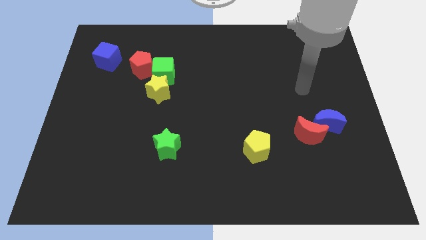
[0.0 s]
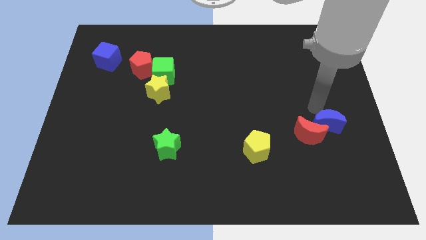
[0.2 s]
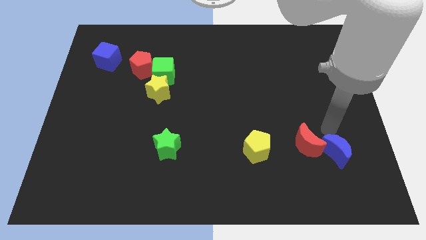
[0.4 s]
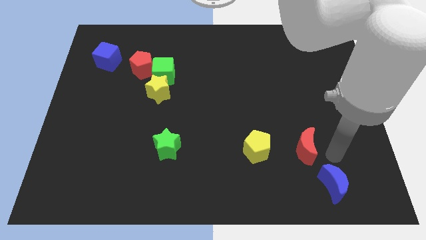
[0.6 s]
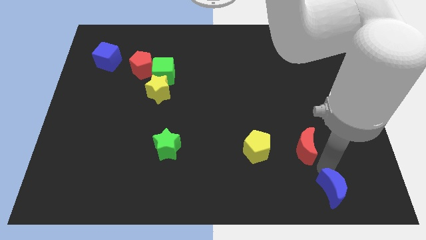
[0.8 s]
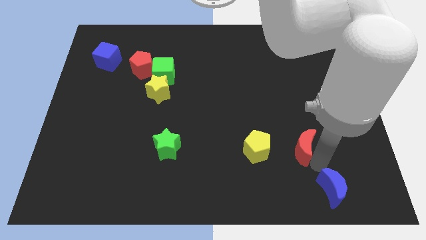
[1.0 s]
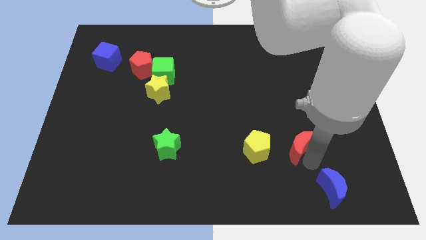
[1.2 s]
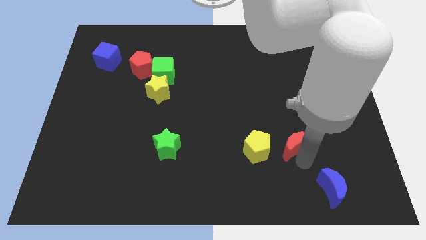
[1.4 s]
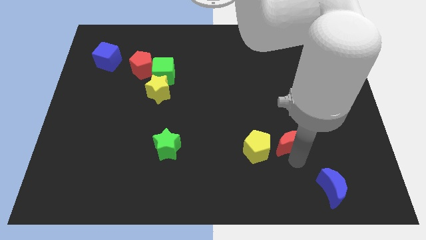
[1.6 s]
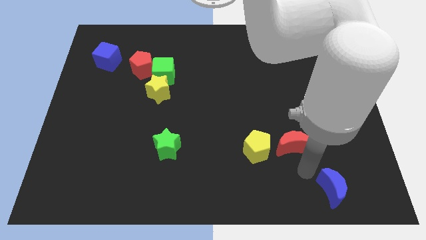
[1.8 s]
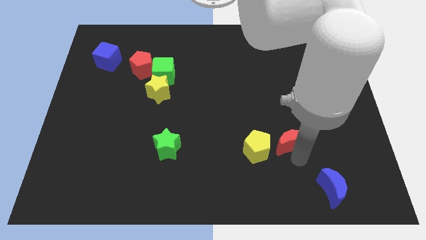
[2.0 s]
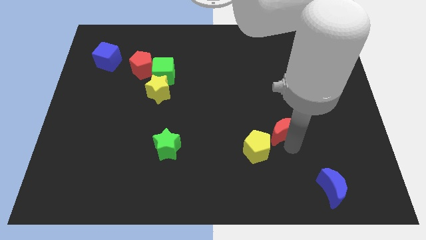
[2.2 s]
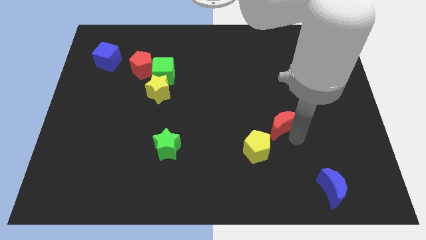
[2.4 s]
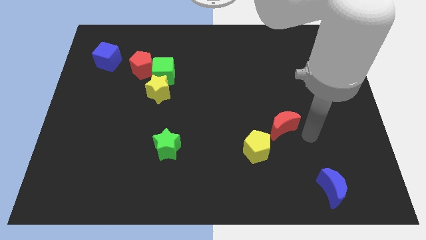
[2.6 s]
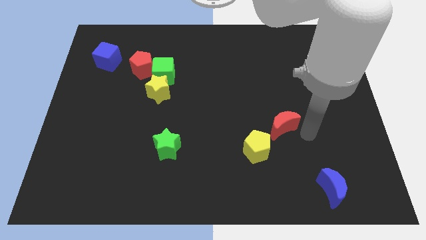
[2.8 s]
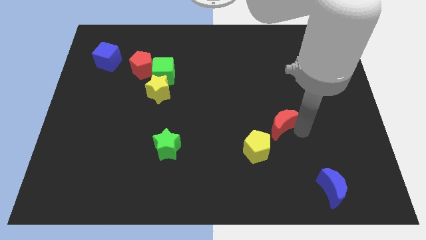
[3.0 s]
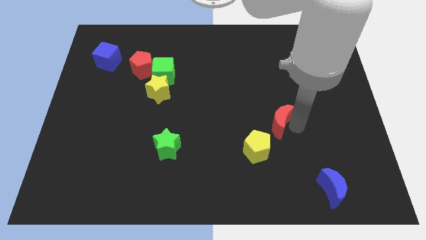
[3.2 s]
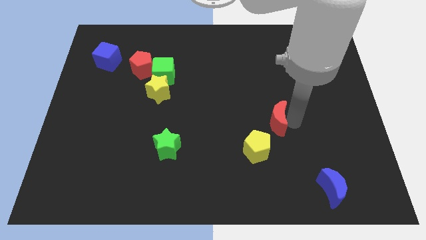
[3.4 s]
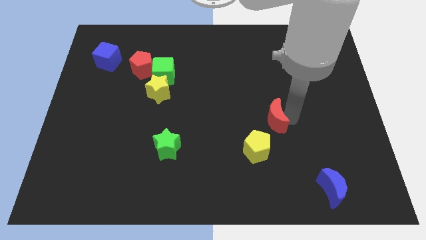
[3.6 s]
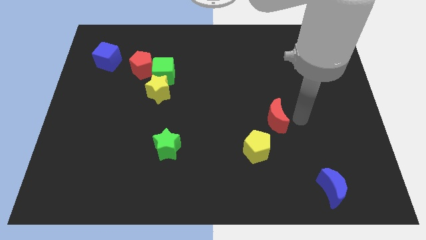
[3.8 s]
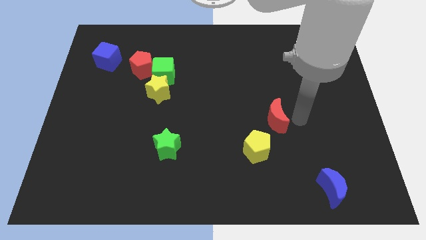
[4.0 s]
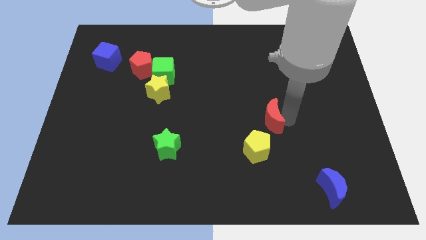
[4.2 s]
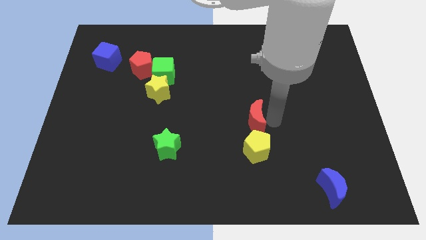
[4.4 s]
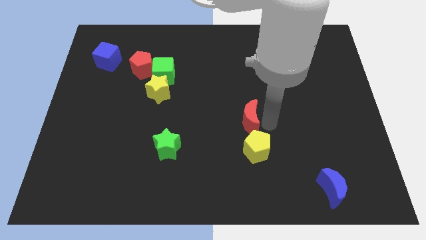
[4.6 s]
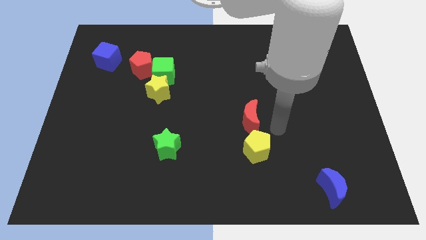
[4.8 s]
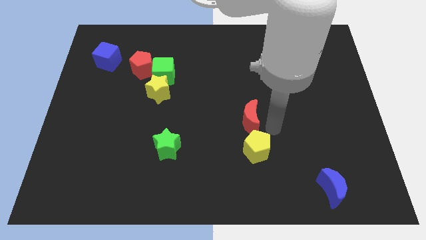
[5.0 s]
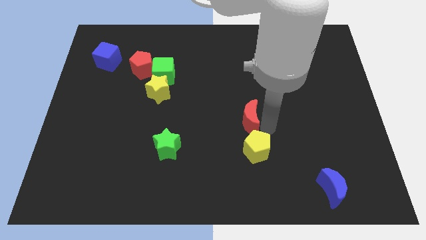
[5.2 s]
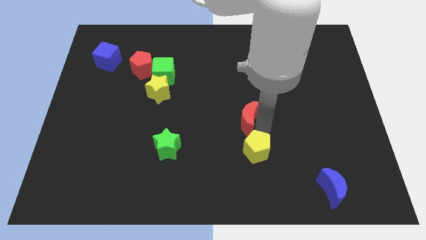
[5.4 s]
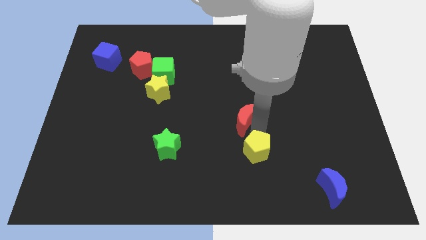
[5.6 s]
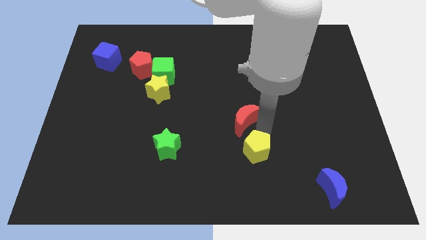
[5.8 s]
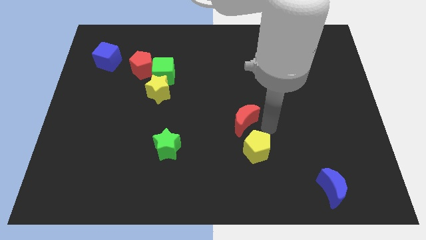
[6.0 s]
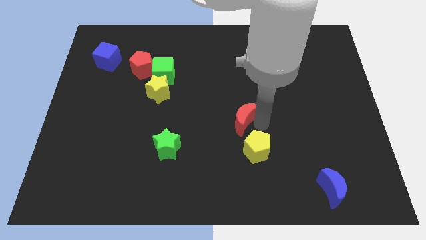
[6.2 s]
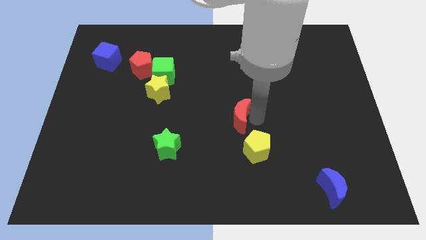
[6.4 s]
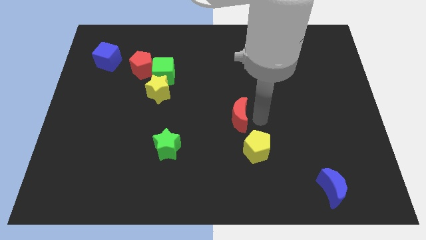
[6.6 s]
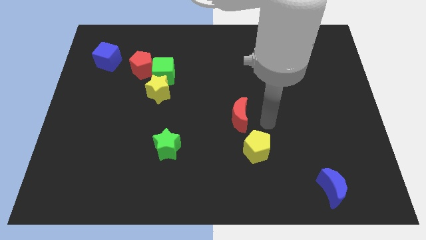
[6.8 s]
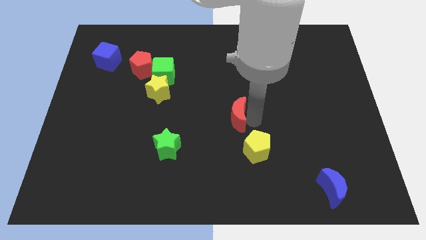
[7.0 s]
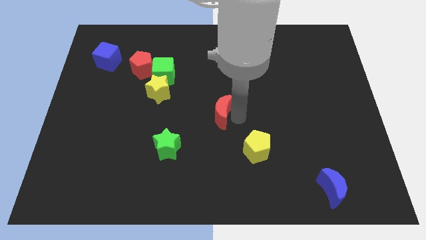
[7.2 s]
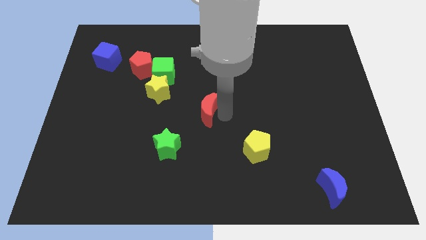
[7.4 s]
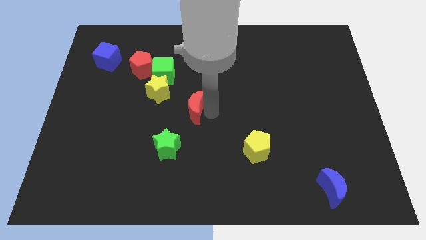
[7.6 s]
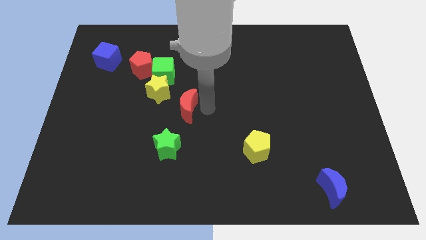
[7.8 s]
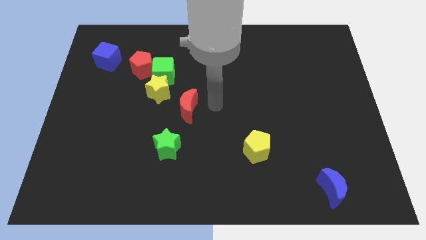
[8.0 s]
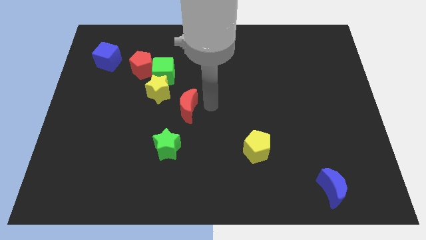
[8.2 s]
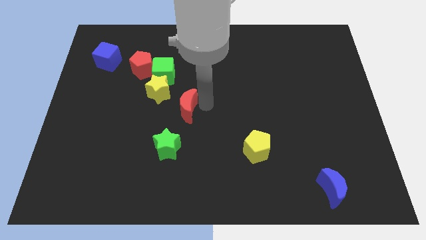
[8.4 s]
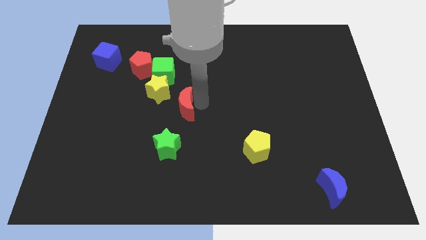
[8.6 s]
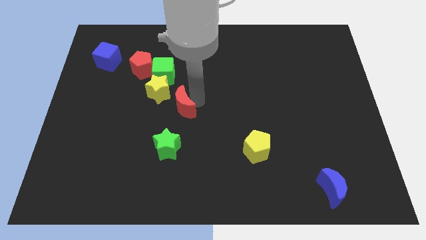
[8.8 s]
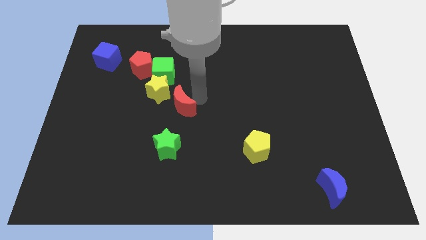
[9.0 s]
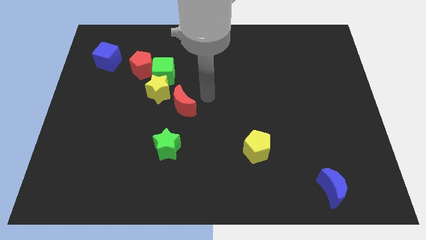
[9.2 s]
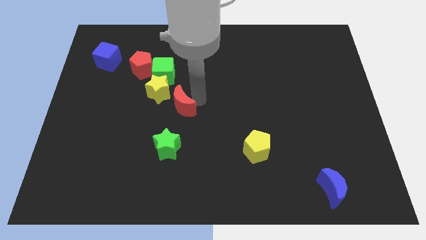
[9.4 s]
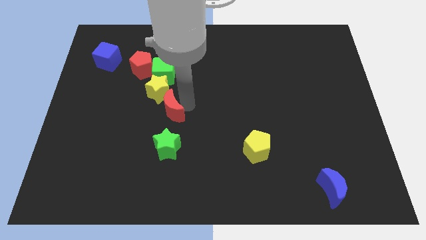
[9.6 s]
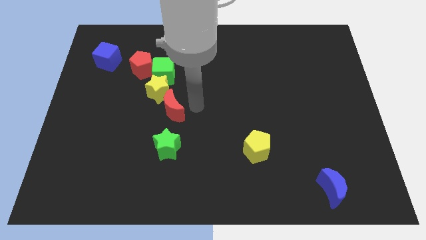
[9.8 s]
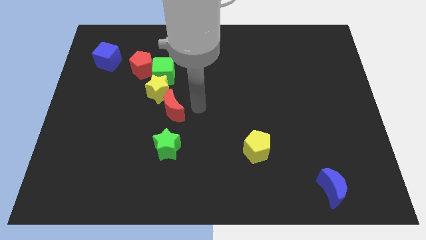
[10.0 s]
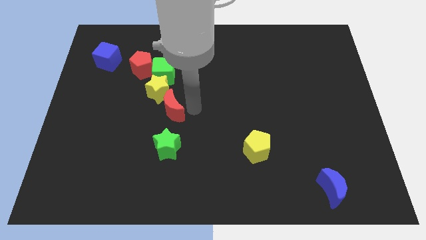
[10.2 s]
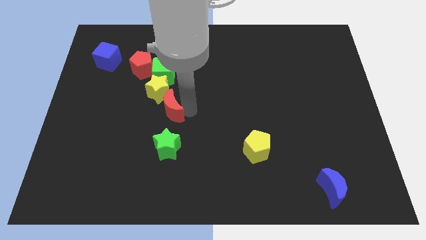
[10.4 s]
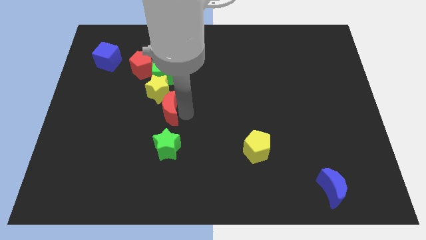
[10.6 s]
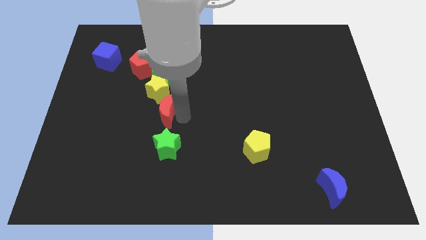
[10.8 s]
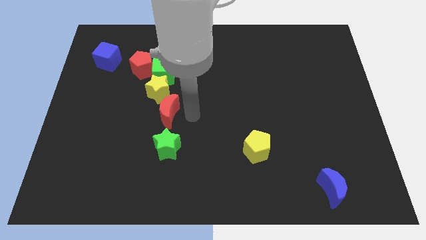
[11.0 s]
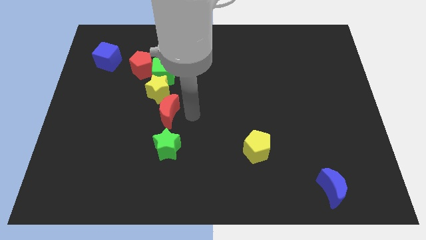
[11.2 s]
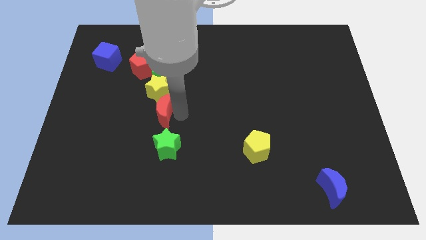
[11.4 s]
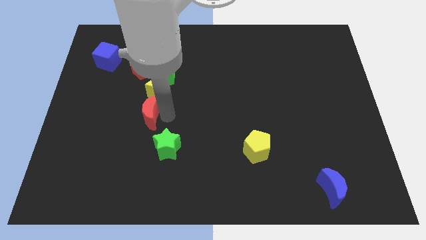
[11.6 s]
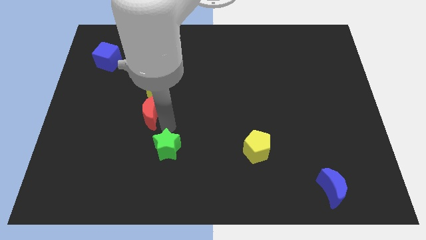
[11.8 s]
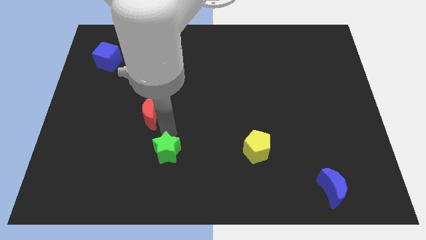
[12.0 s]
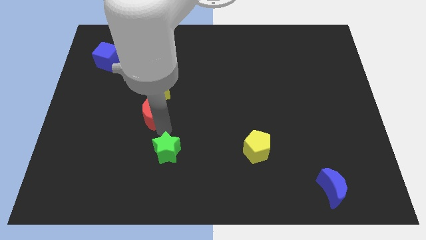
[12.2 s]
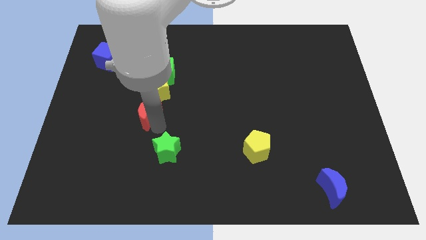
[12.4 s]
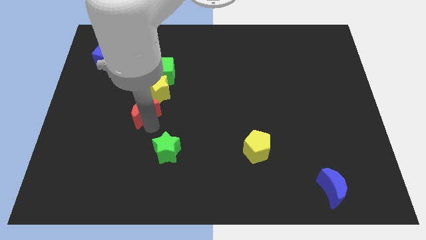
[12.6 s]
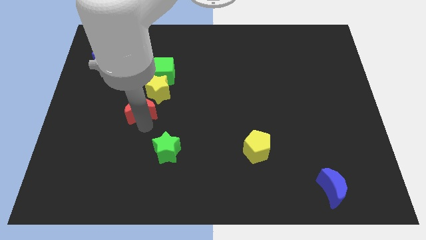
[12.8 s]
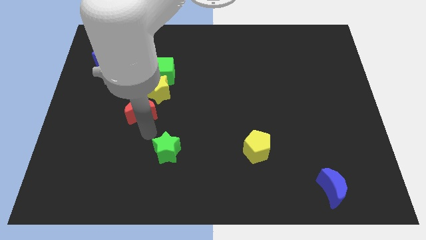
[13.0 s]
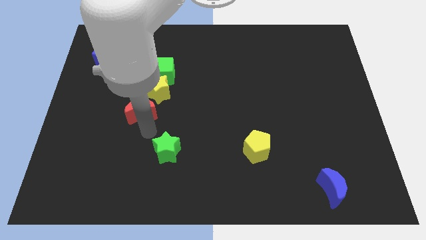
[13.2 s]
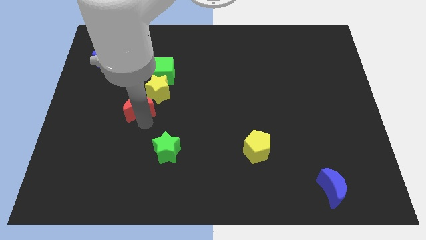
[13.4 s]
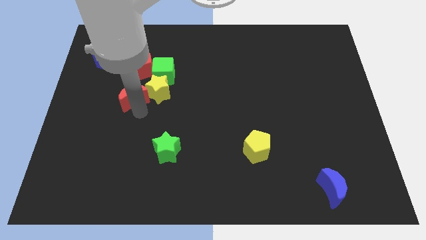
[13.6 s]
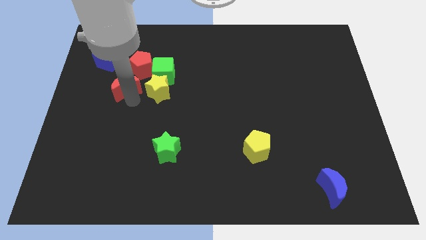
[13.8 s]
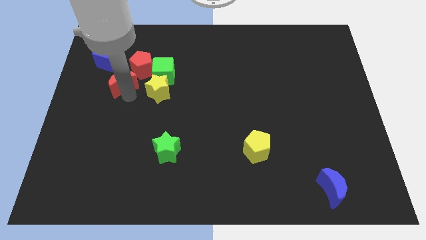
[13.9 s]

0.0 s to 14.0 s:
move the red moon to the left of the green cube

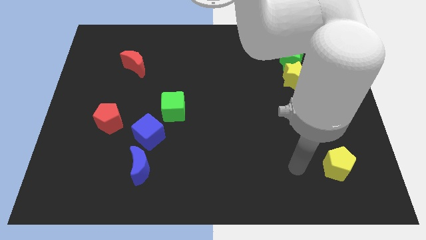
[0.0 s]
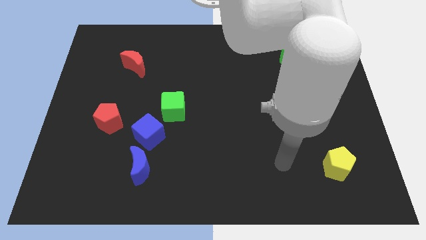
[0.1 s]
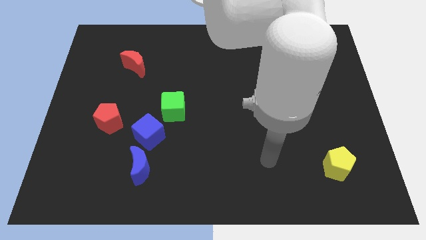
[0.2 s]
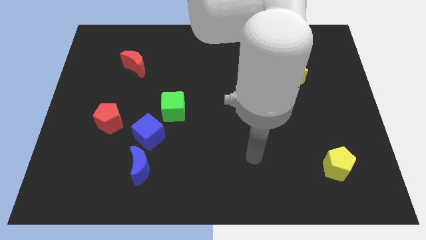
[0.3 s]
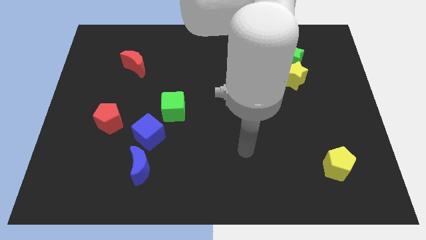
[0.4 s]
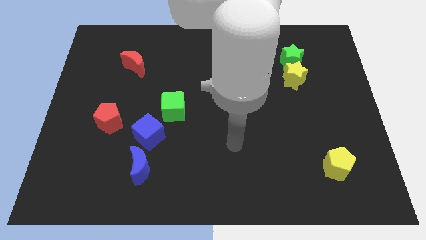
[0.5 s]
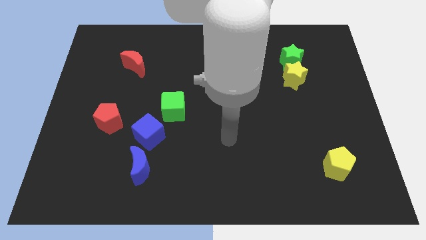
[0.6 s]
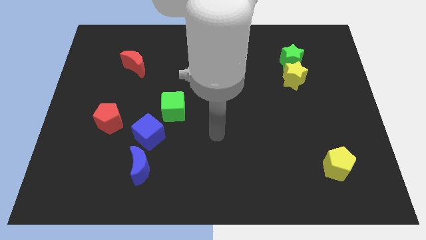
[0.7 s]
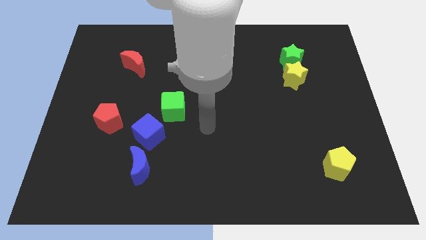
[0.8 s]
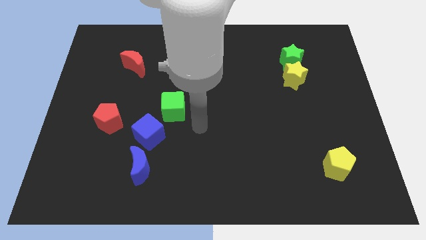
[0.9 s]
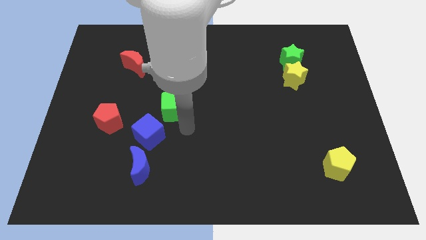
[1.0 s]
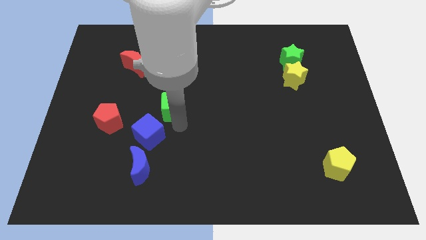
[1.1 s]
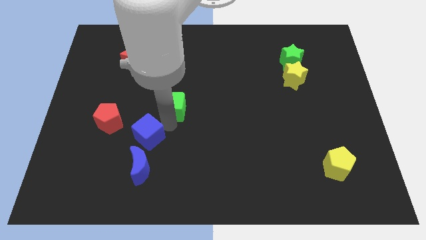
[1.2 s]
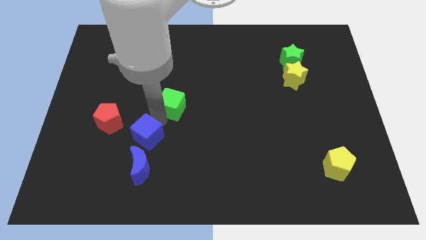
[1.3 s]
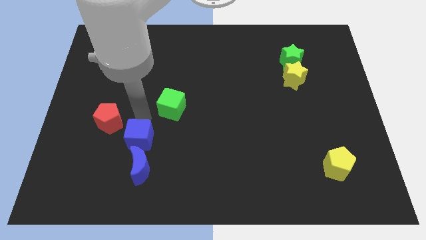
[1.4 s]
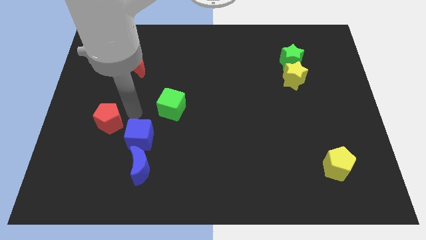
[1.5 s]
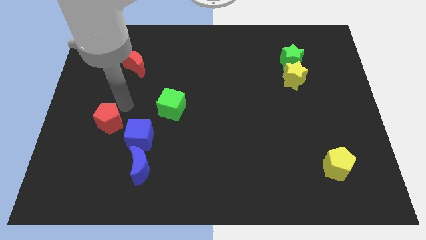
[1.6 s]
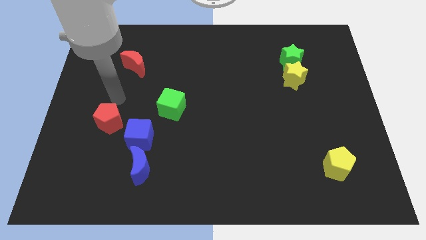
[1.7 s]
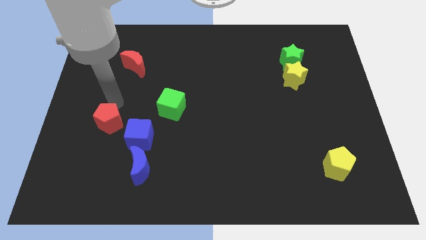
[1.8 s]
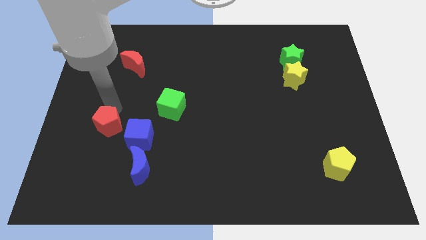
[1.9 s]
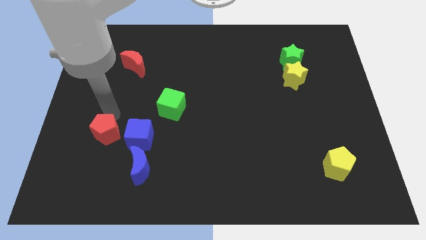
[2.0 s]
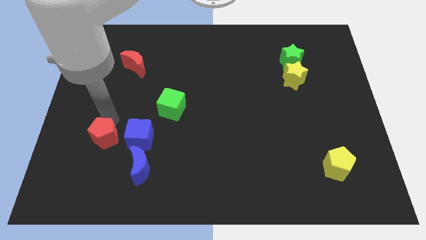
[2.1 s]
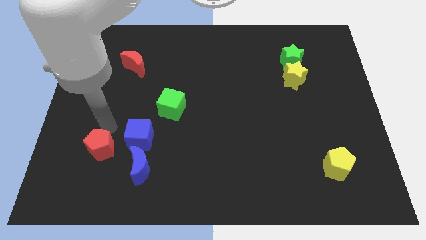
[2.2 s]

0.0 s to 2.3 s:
move the red pentagon left of the blue moon
